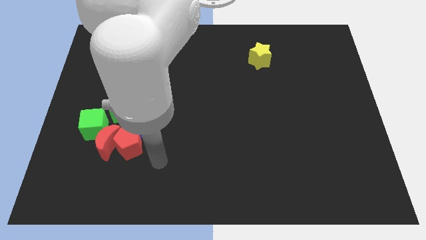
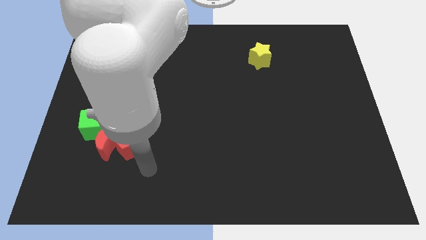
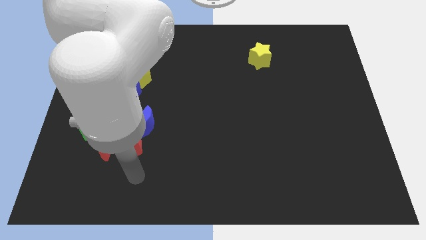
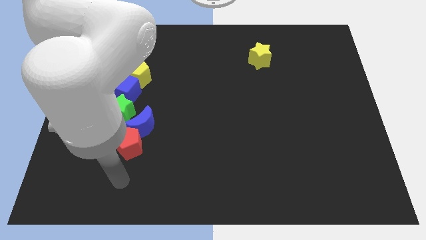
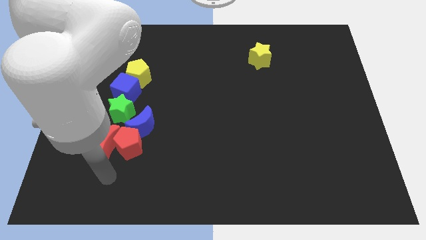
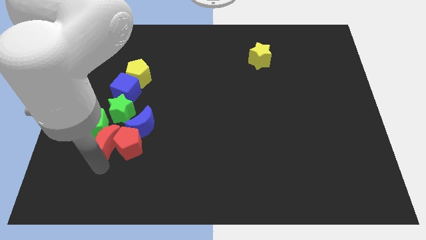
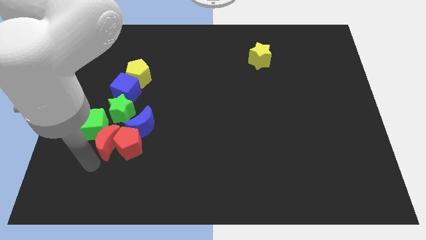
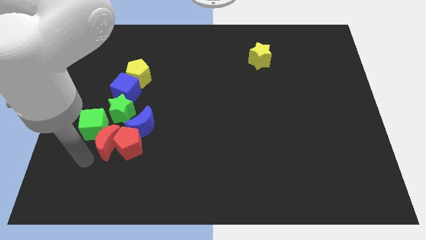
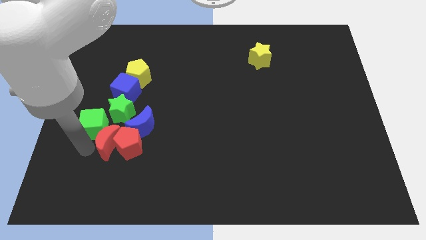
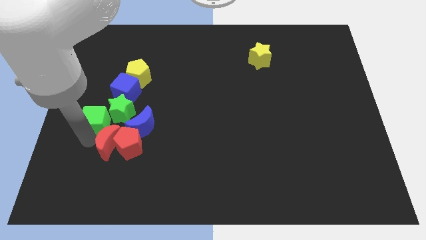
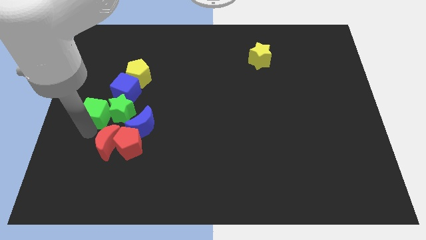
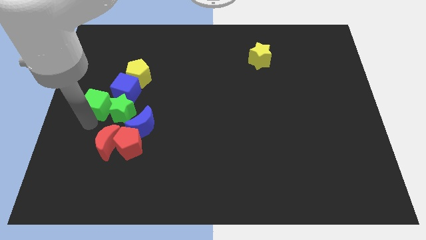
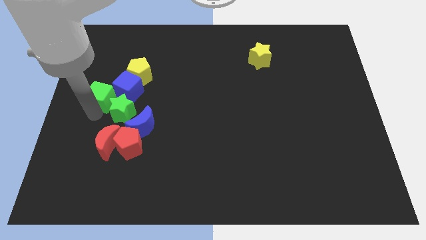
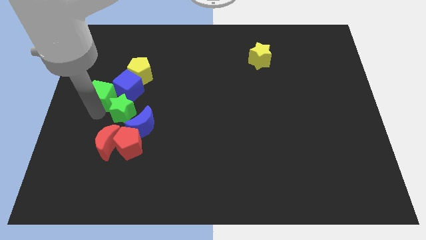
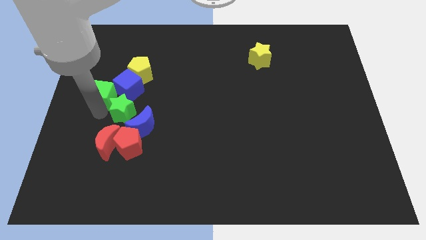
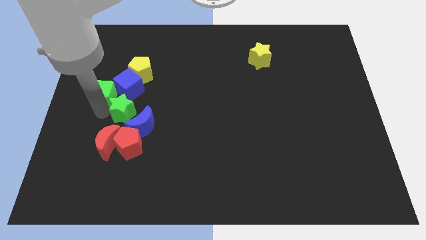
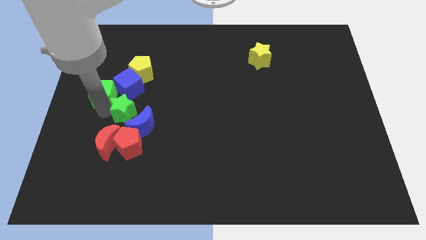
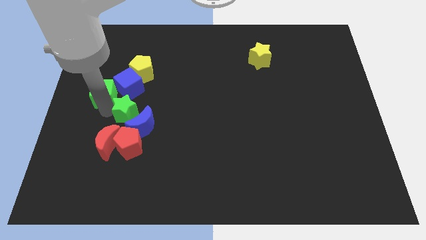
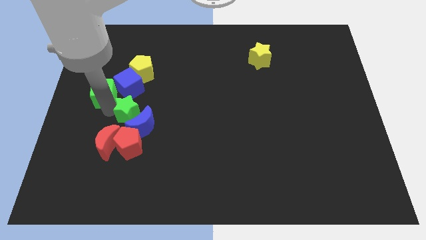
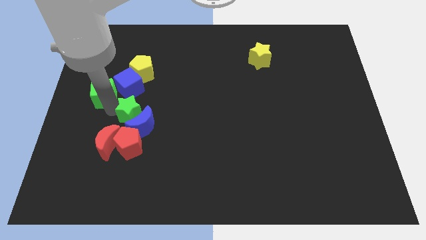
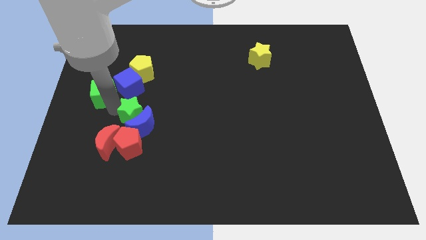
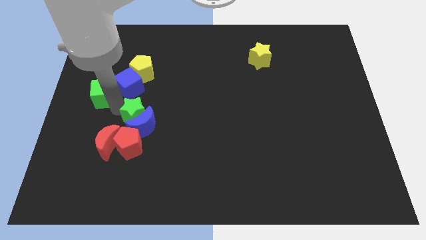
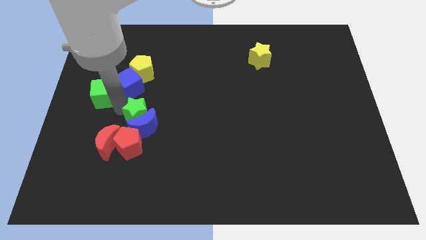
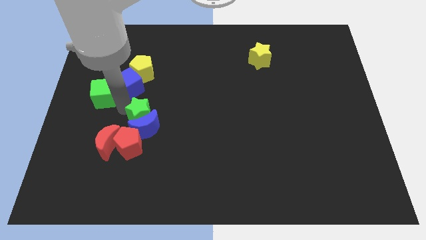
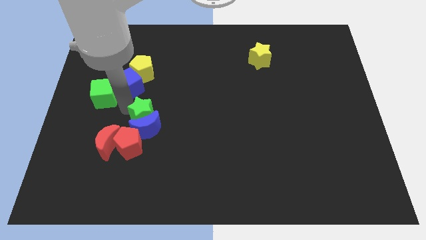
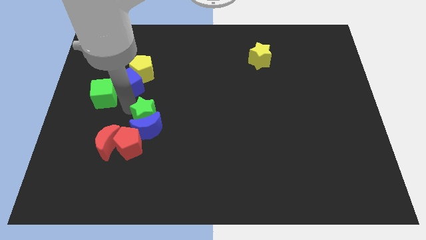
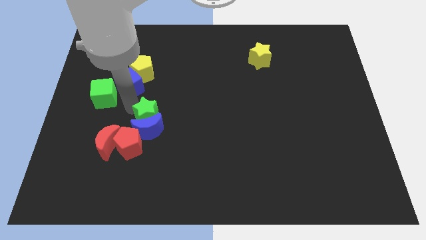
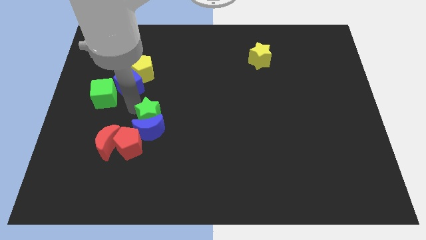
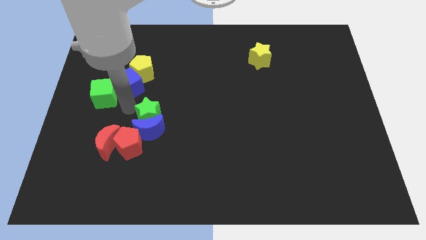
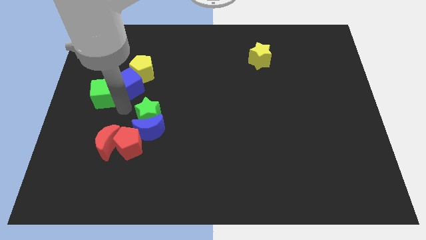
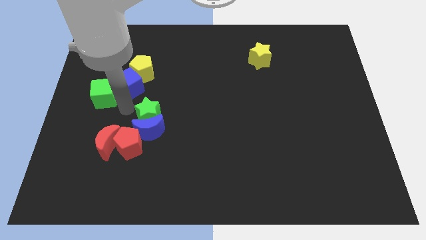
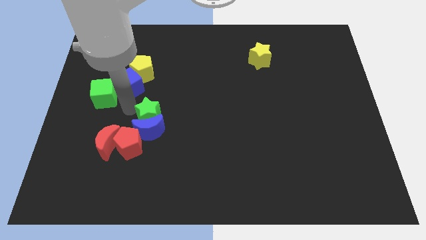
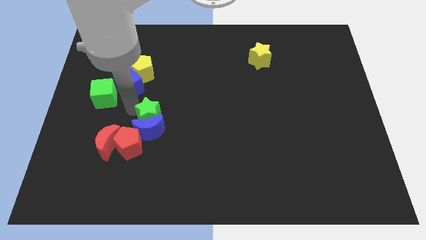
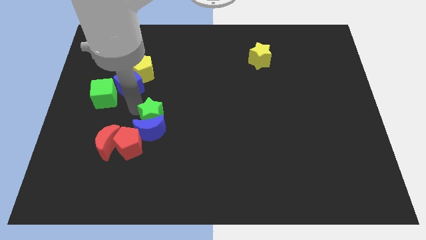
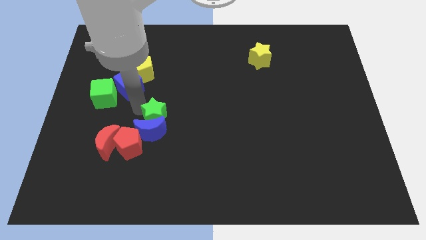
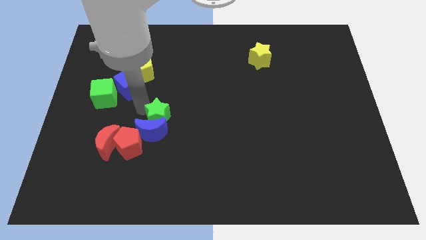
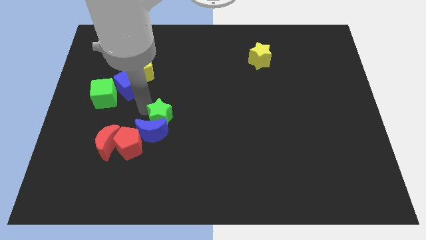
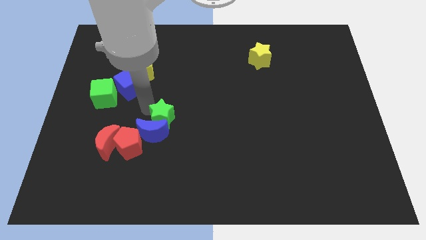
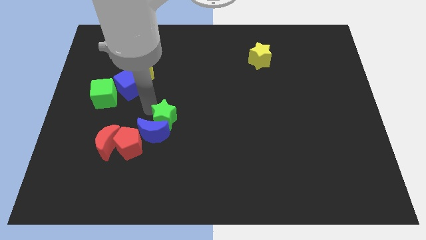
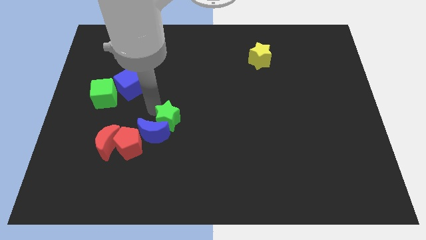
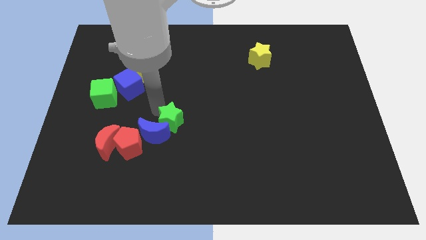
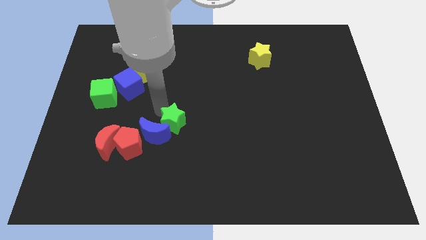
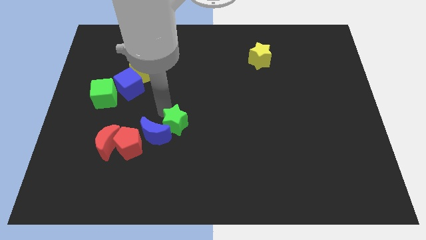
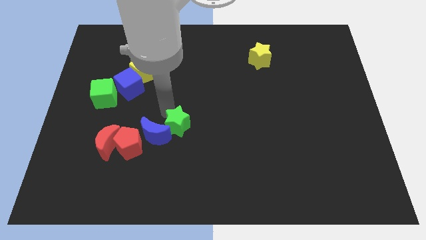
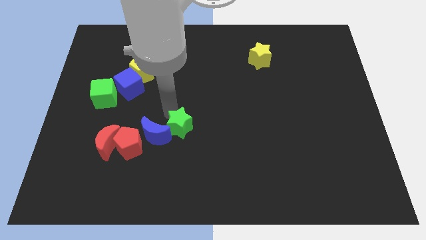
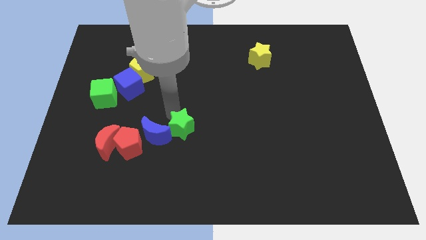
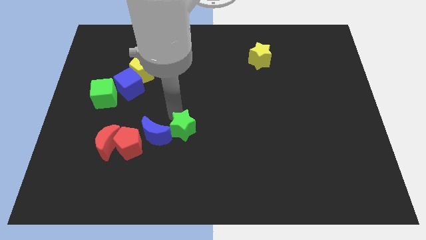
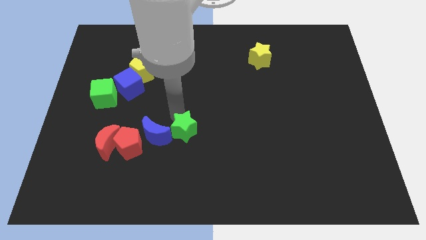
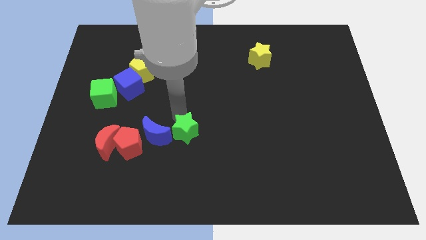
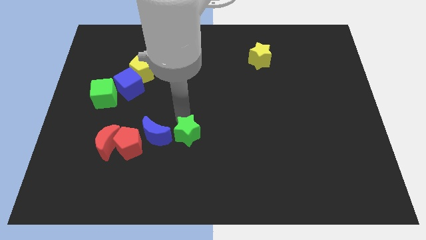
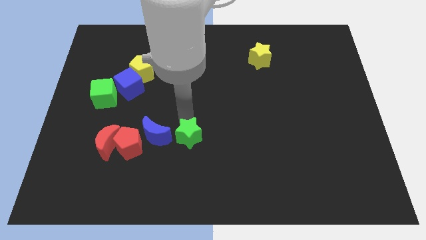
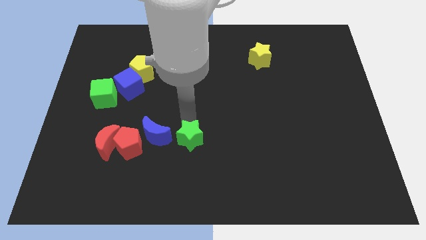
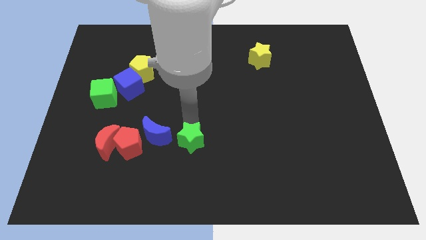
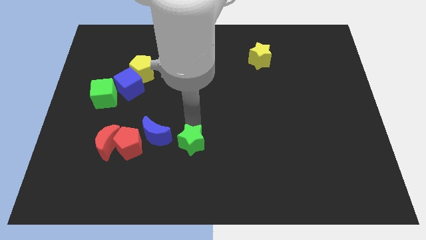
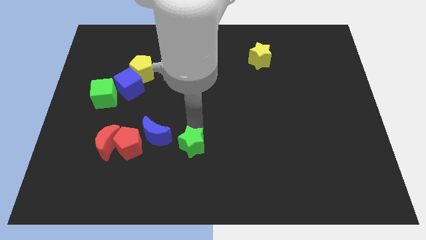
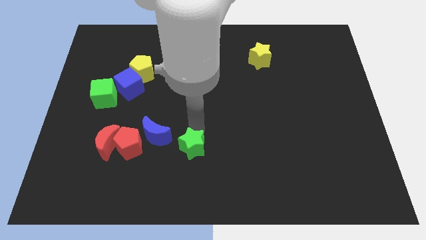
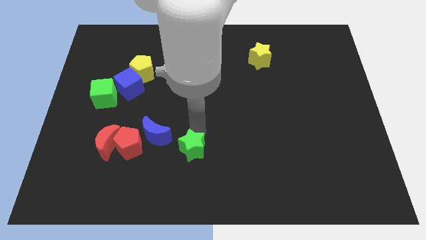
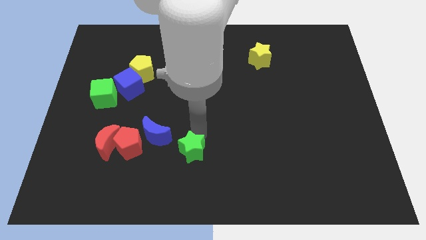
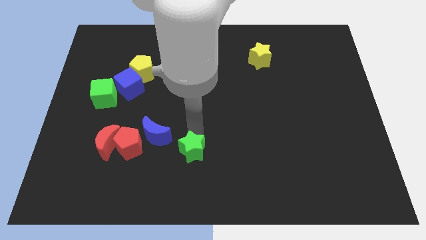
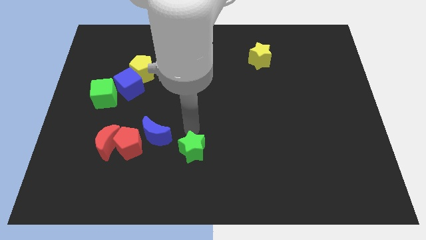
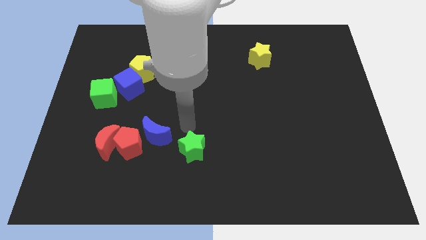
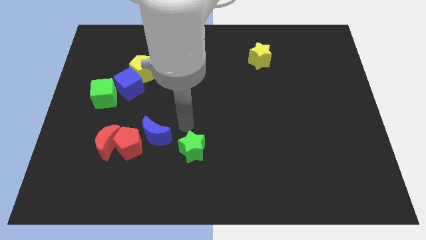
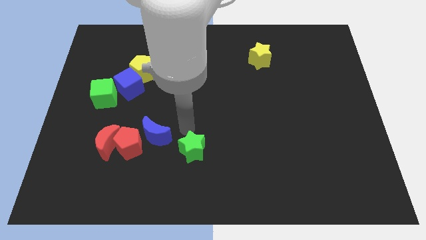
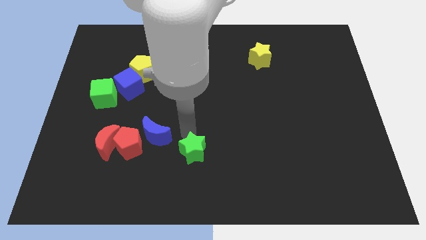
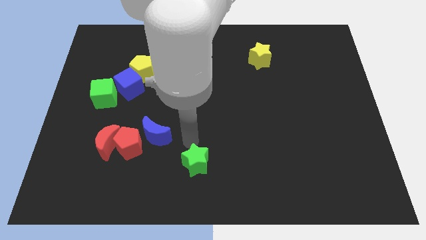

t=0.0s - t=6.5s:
put the green star to the bottom
